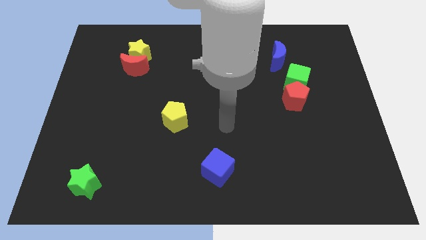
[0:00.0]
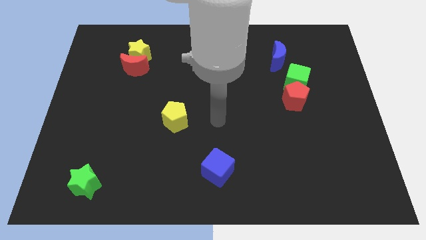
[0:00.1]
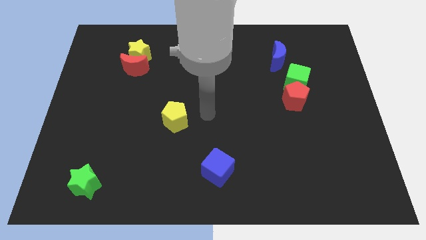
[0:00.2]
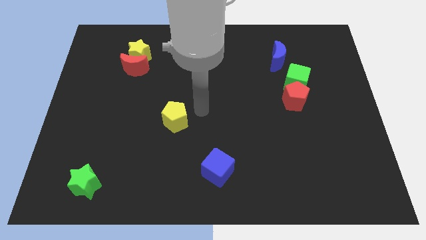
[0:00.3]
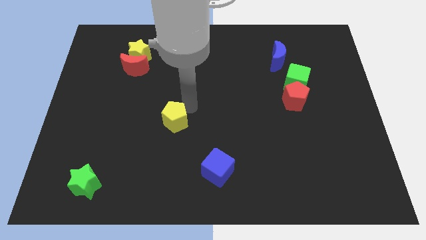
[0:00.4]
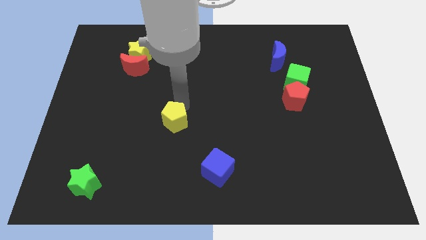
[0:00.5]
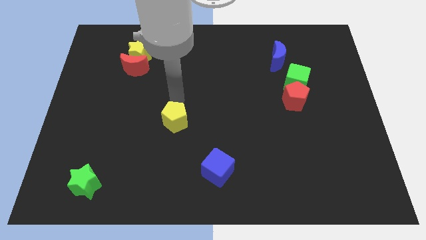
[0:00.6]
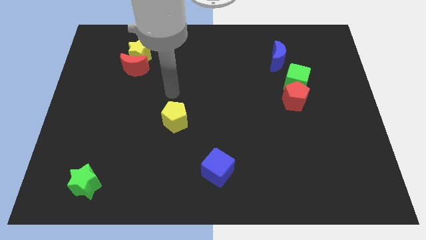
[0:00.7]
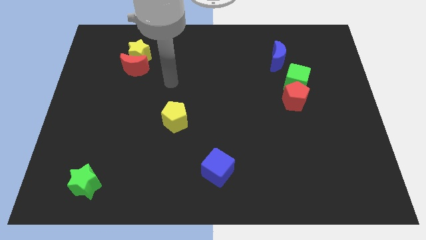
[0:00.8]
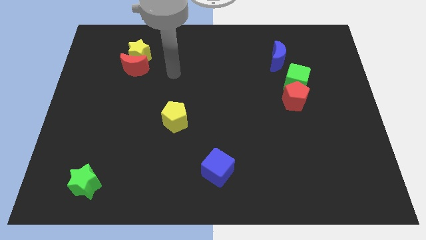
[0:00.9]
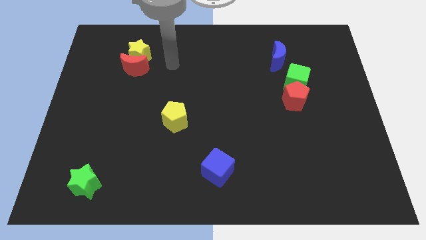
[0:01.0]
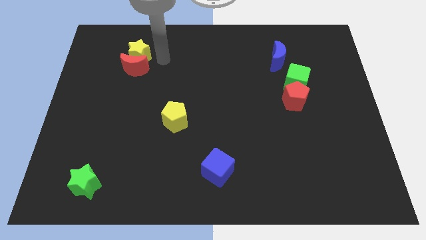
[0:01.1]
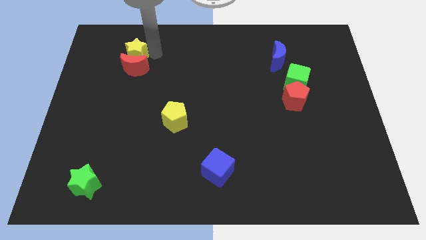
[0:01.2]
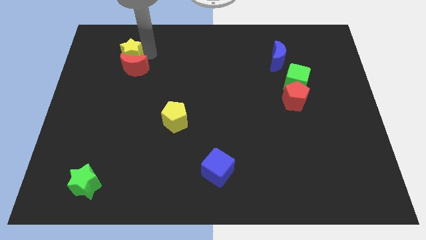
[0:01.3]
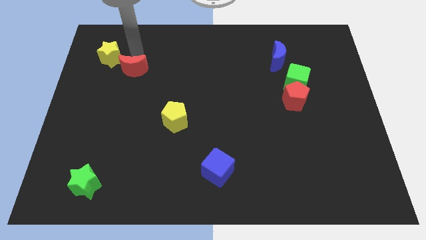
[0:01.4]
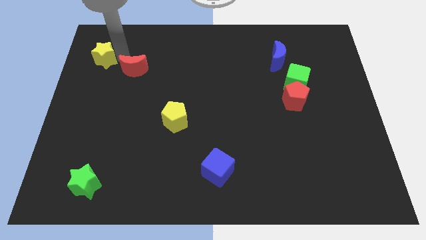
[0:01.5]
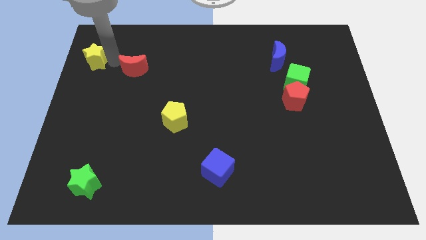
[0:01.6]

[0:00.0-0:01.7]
separate the red moon from the yellow star

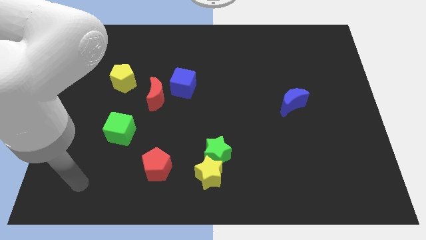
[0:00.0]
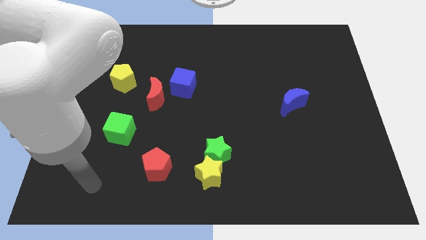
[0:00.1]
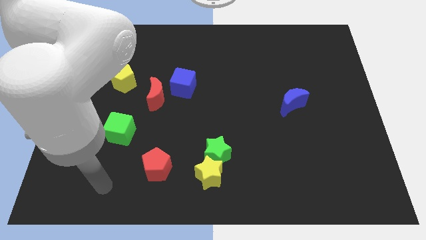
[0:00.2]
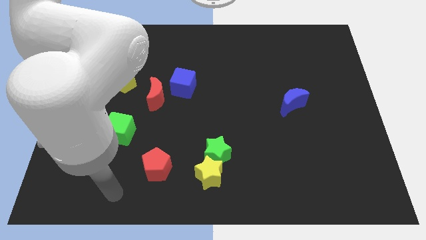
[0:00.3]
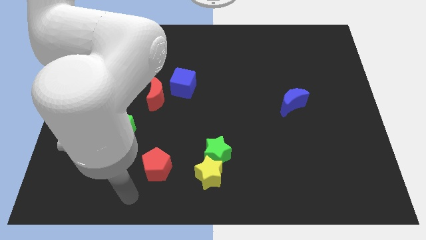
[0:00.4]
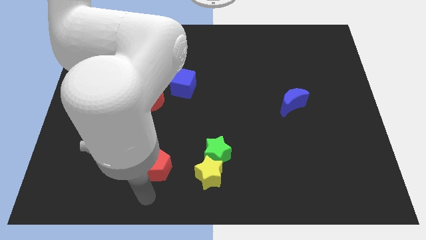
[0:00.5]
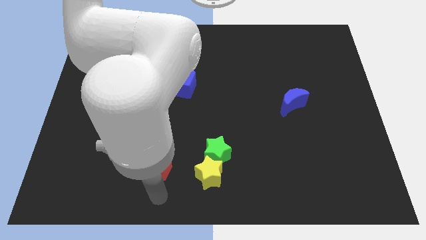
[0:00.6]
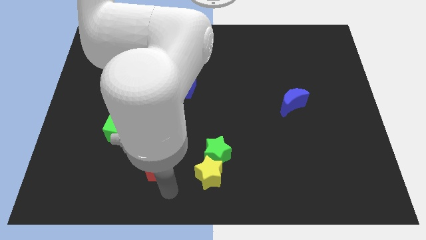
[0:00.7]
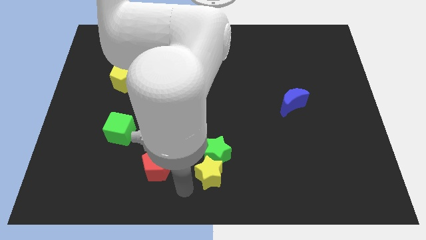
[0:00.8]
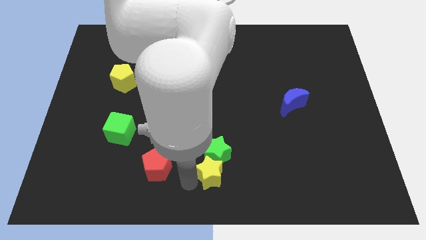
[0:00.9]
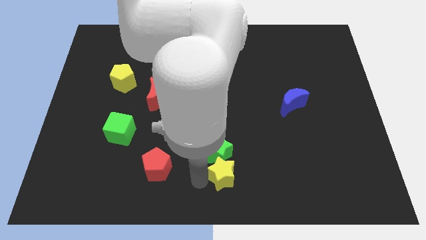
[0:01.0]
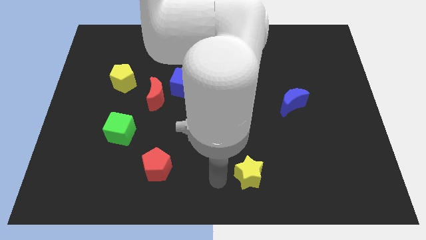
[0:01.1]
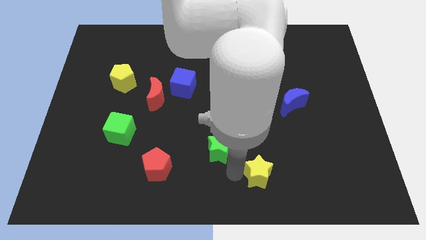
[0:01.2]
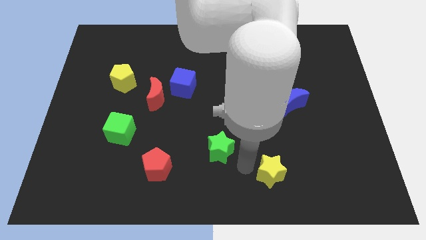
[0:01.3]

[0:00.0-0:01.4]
pull the green star apart from the yellow star

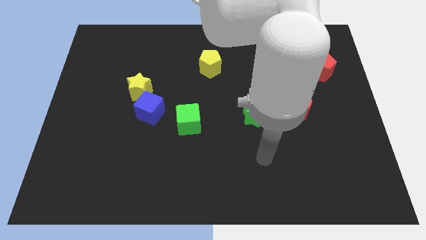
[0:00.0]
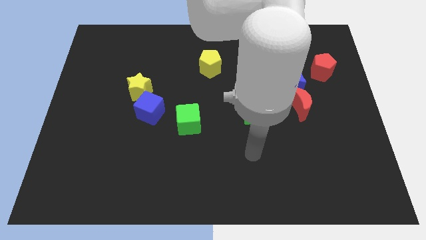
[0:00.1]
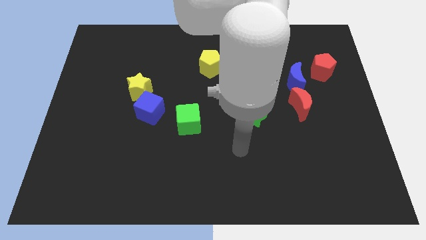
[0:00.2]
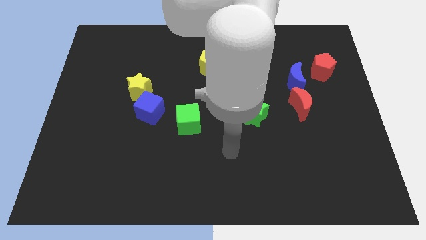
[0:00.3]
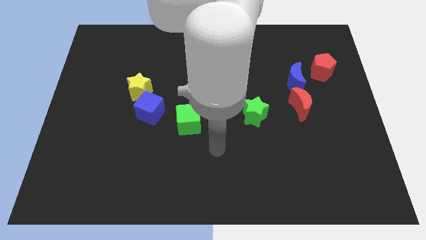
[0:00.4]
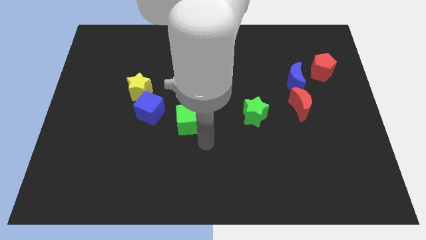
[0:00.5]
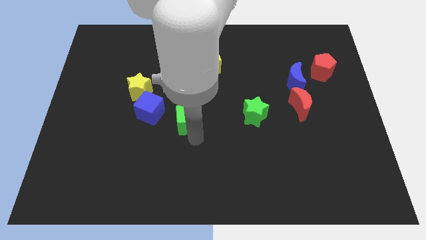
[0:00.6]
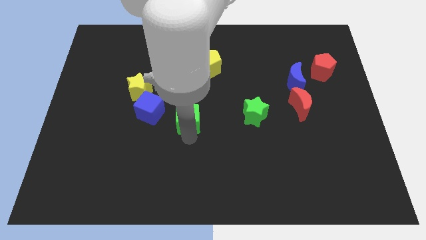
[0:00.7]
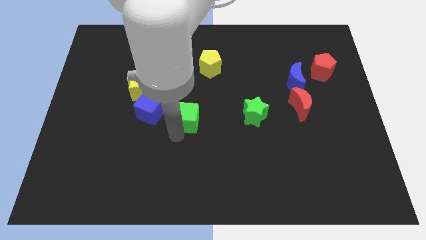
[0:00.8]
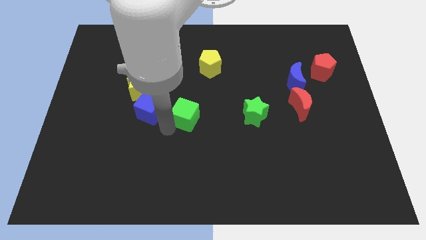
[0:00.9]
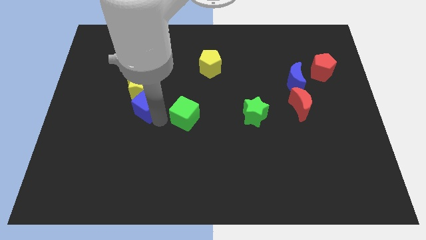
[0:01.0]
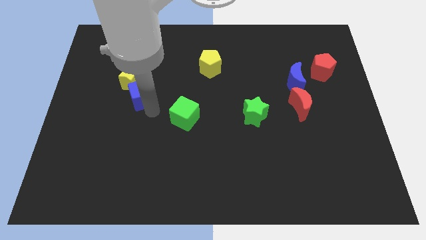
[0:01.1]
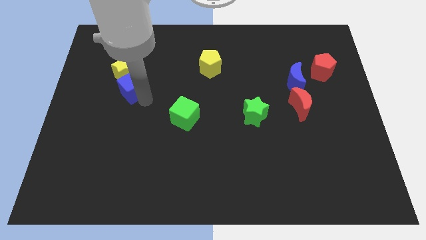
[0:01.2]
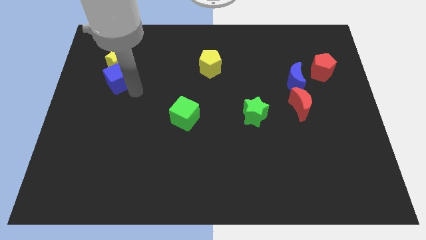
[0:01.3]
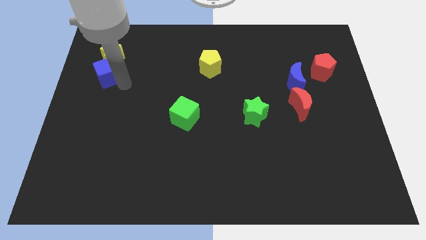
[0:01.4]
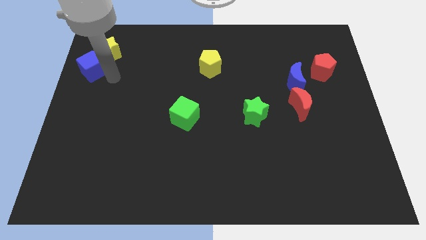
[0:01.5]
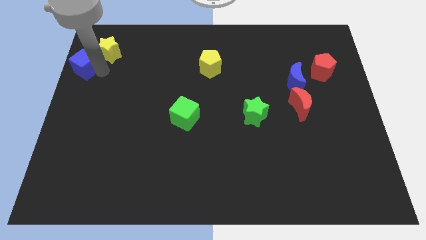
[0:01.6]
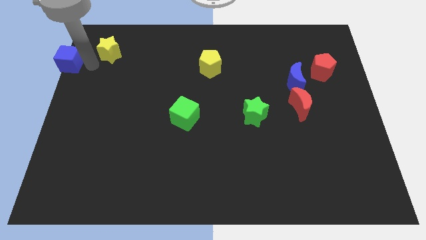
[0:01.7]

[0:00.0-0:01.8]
pull the yellow star apart from the blue cube

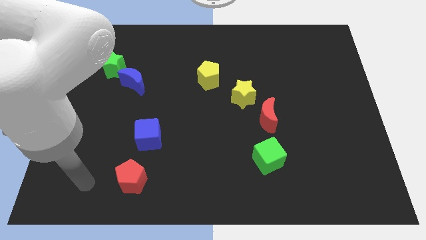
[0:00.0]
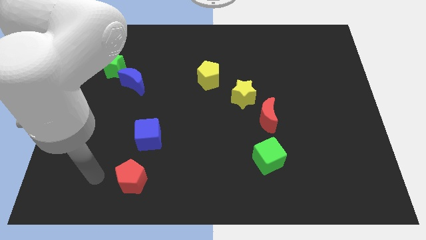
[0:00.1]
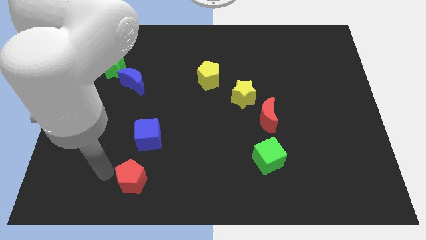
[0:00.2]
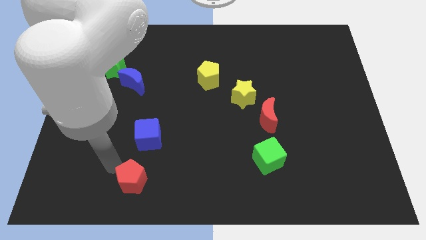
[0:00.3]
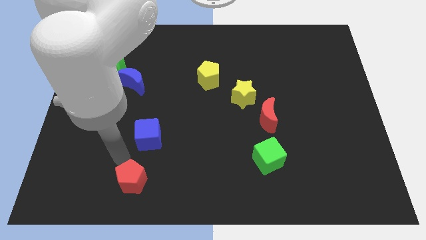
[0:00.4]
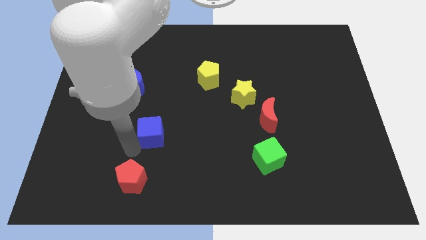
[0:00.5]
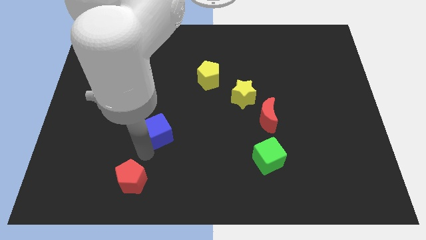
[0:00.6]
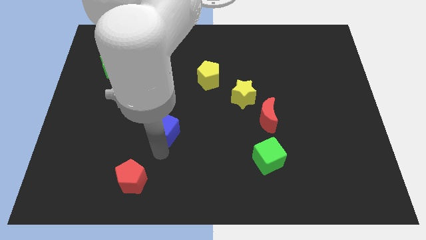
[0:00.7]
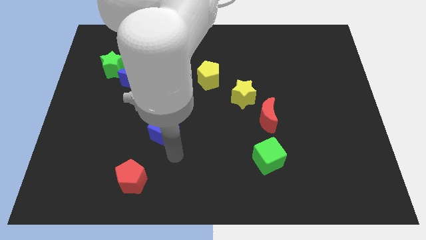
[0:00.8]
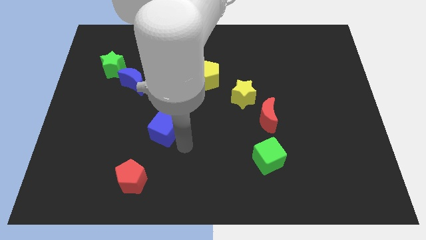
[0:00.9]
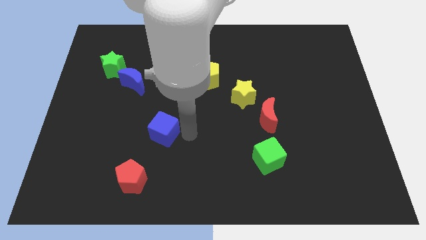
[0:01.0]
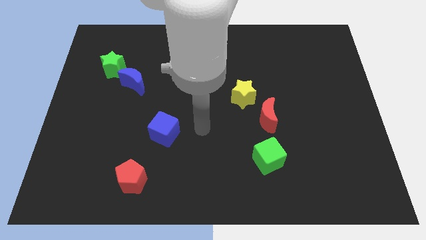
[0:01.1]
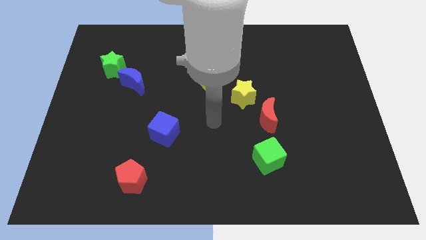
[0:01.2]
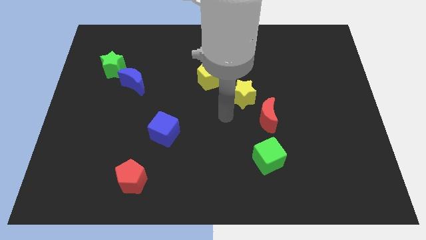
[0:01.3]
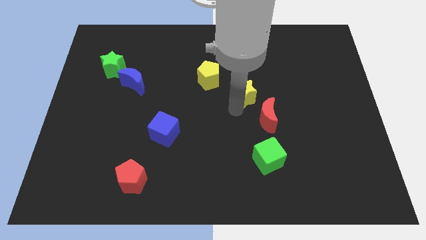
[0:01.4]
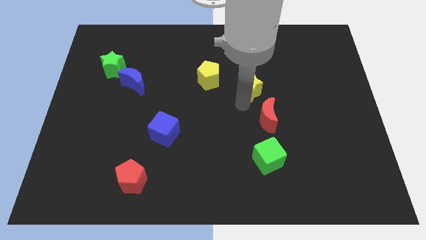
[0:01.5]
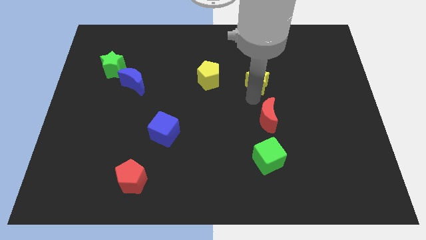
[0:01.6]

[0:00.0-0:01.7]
move the red moon away from the yellow star

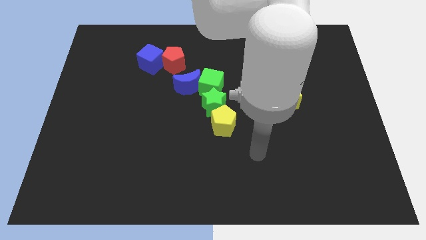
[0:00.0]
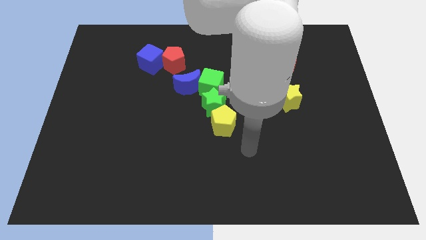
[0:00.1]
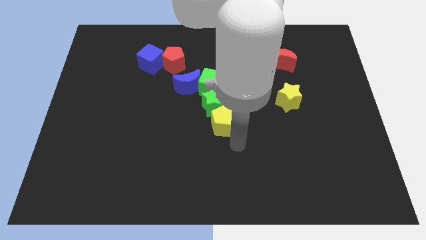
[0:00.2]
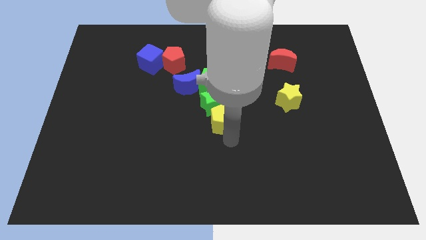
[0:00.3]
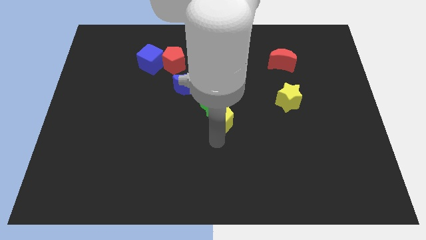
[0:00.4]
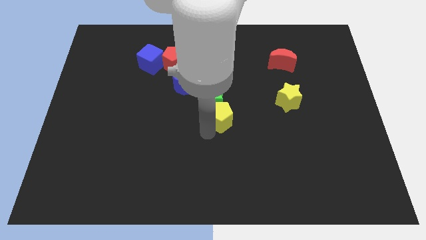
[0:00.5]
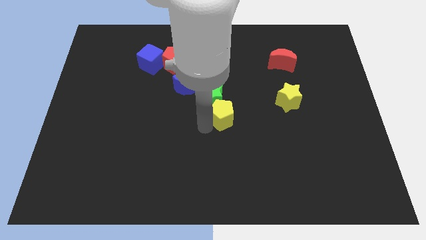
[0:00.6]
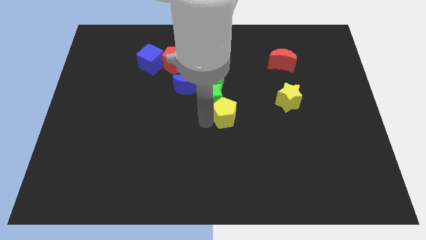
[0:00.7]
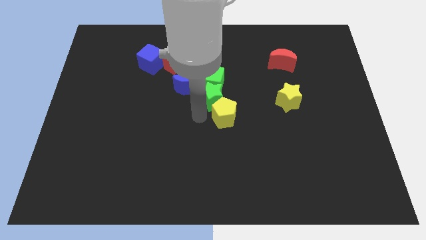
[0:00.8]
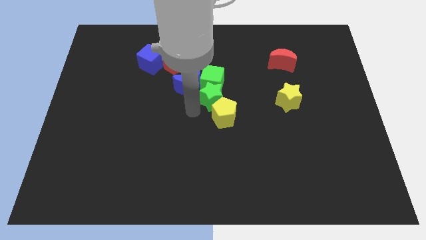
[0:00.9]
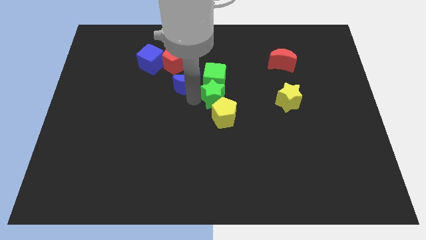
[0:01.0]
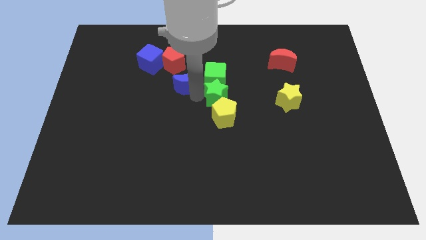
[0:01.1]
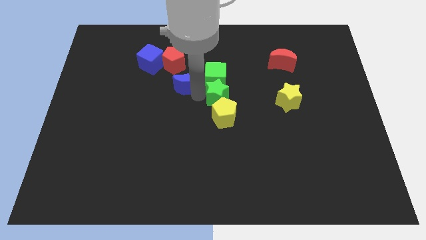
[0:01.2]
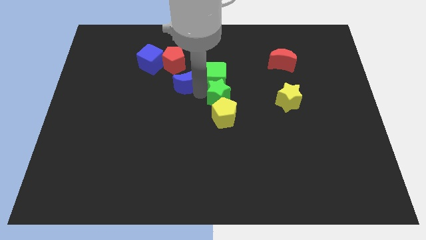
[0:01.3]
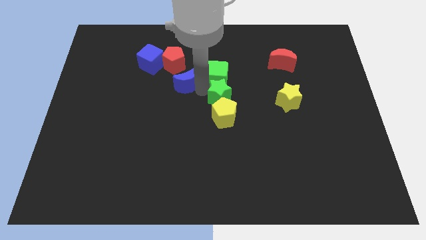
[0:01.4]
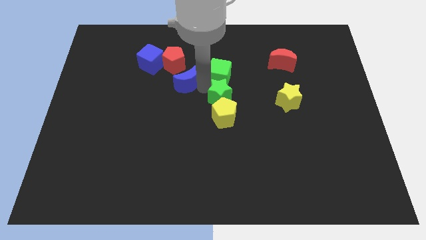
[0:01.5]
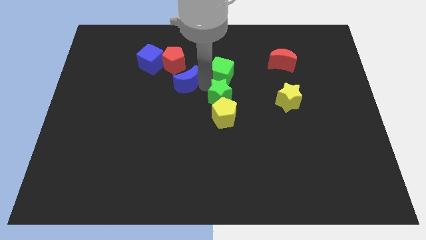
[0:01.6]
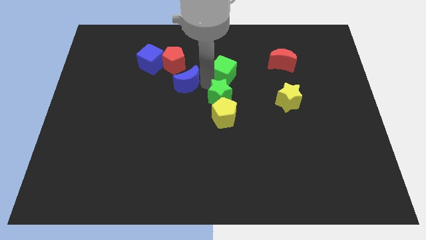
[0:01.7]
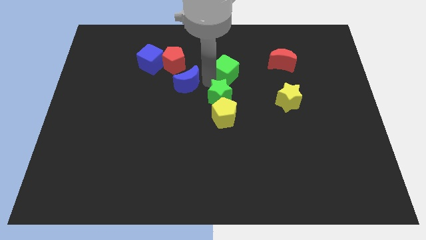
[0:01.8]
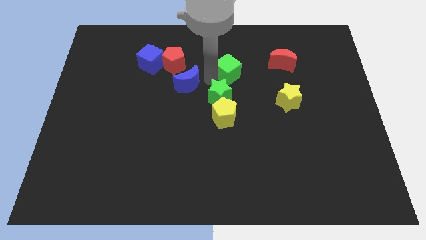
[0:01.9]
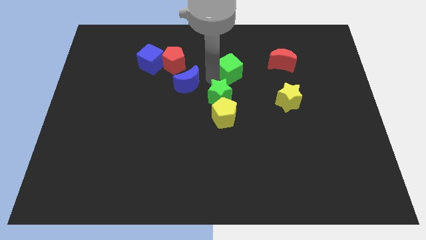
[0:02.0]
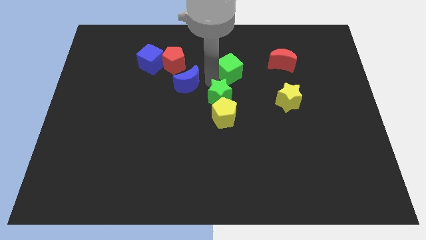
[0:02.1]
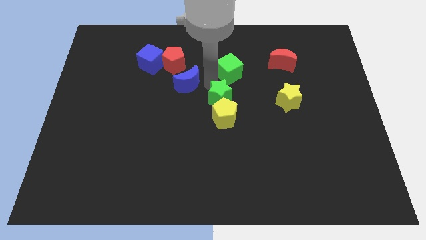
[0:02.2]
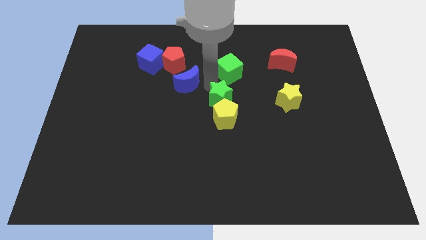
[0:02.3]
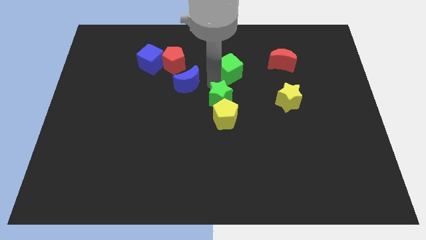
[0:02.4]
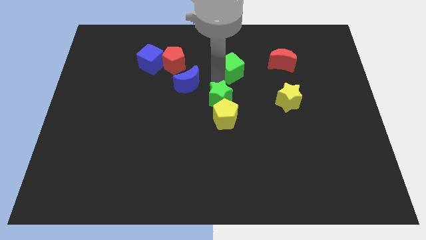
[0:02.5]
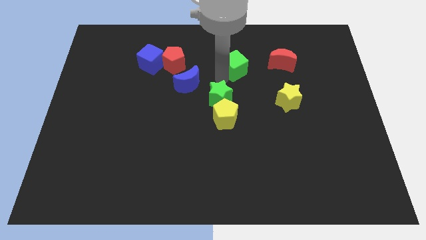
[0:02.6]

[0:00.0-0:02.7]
separate the green cube from the blue moon and green star
